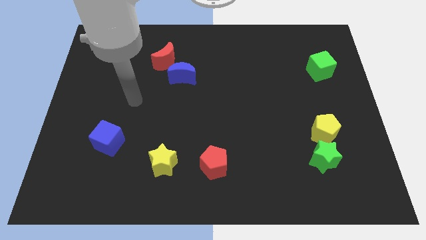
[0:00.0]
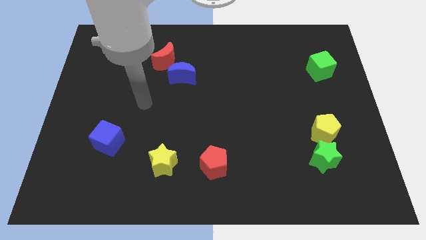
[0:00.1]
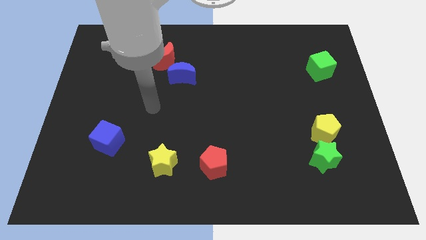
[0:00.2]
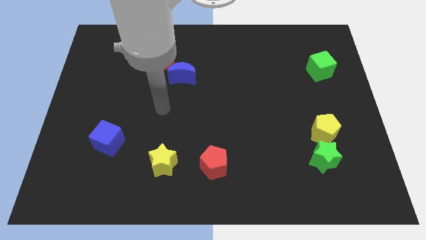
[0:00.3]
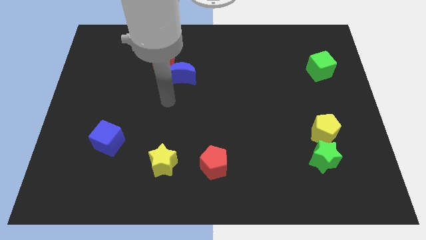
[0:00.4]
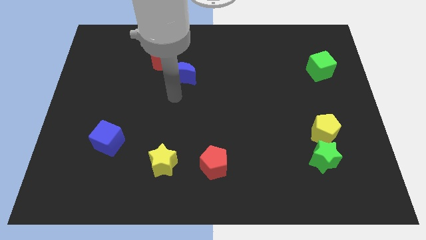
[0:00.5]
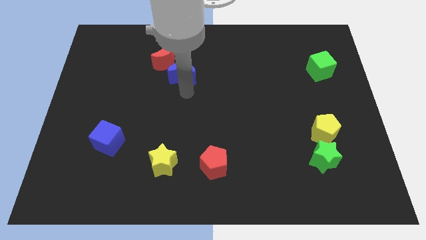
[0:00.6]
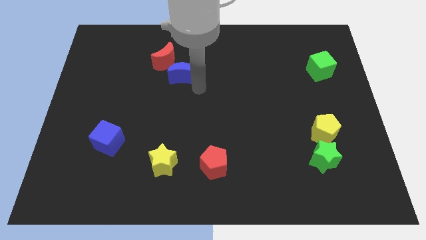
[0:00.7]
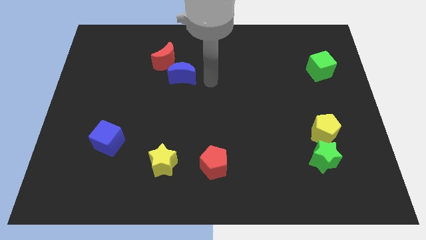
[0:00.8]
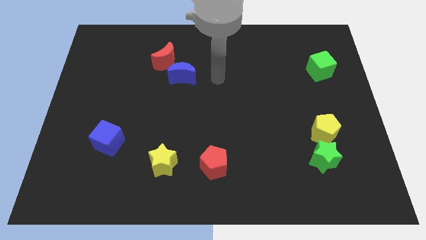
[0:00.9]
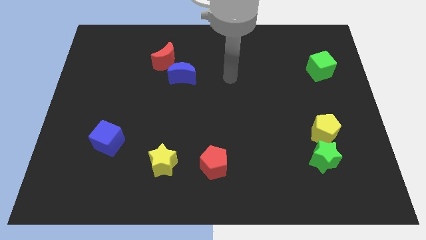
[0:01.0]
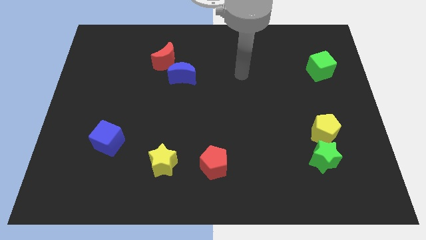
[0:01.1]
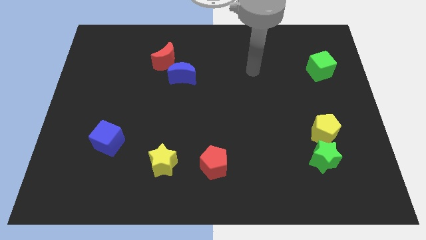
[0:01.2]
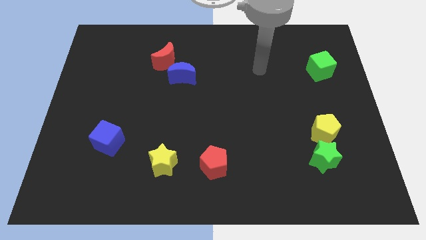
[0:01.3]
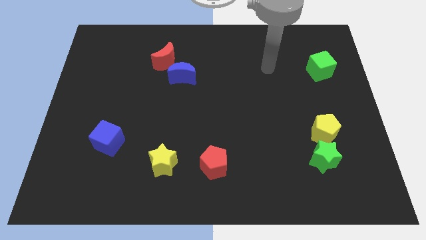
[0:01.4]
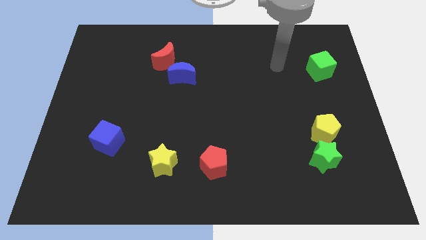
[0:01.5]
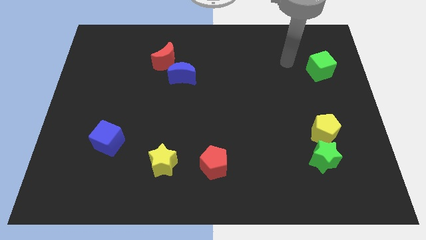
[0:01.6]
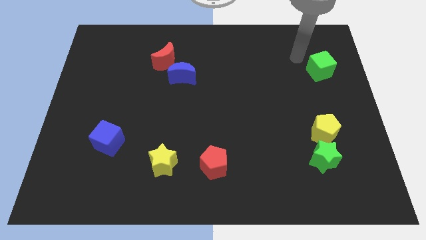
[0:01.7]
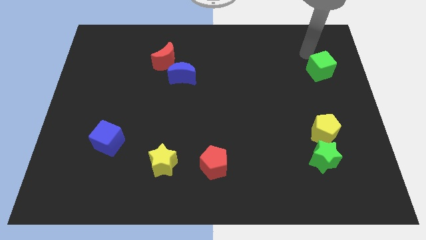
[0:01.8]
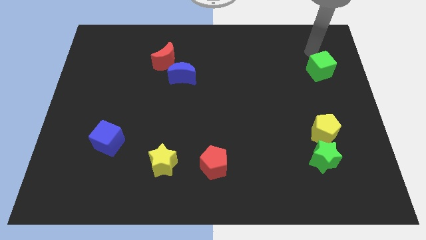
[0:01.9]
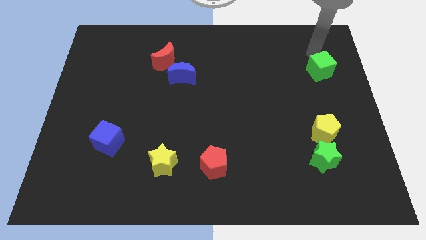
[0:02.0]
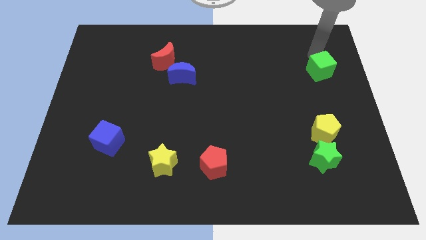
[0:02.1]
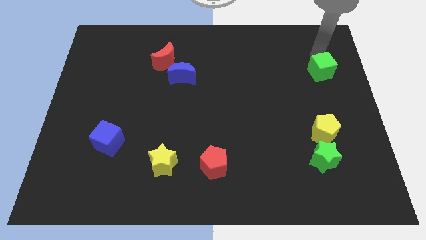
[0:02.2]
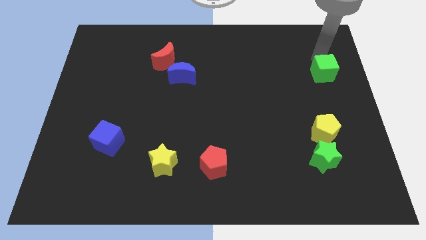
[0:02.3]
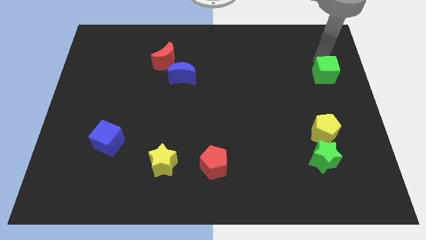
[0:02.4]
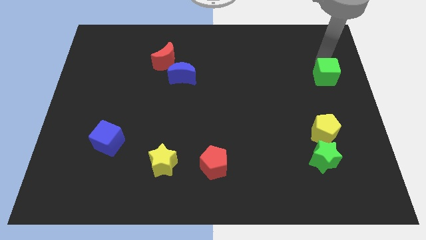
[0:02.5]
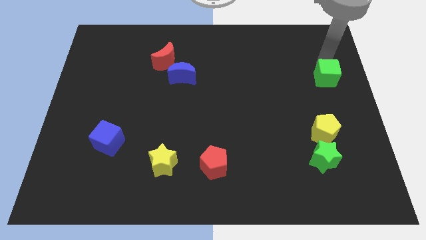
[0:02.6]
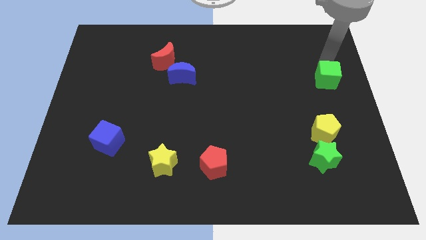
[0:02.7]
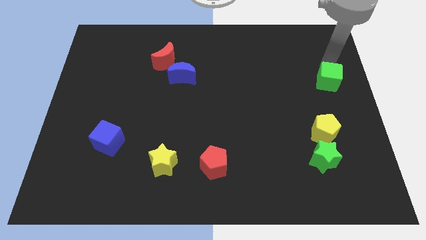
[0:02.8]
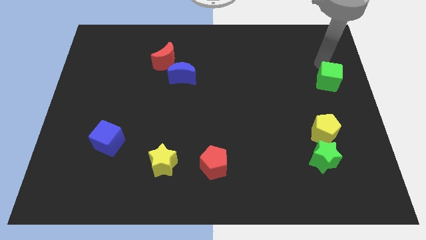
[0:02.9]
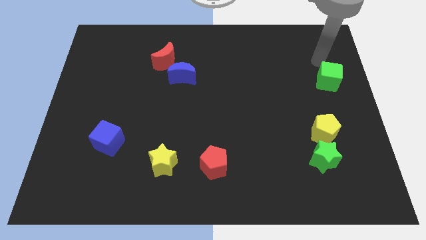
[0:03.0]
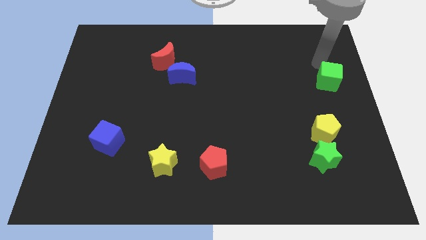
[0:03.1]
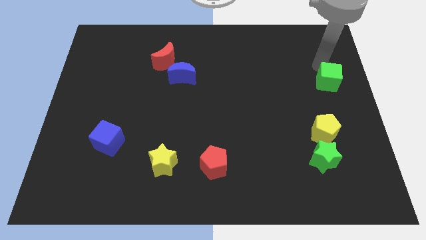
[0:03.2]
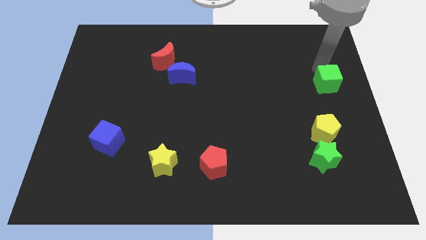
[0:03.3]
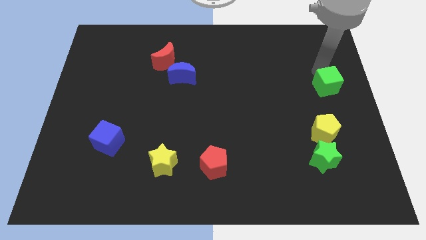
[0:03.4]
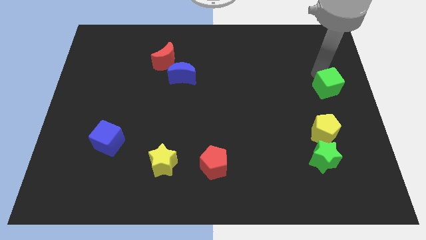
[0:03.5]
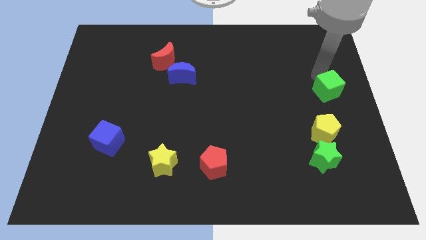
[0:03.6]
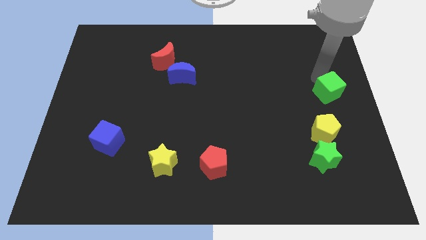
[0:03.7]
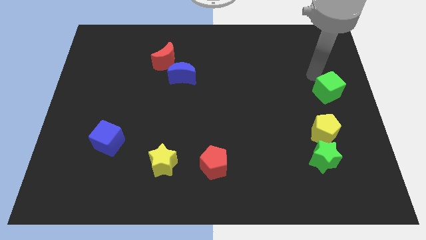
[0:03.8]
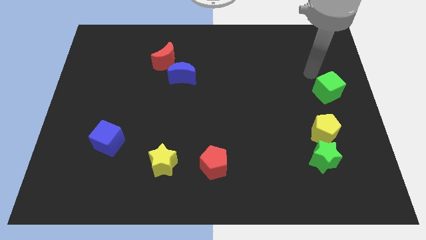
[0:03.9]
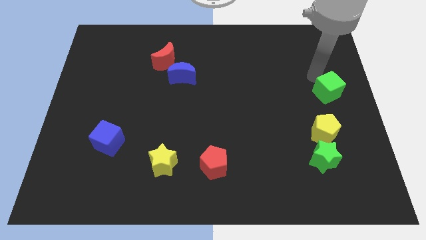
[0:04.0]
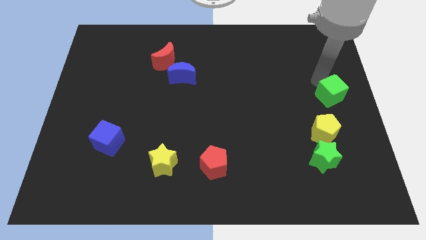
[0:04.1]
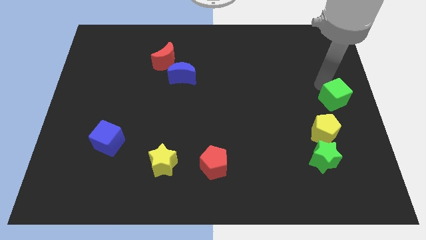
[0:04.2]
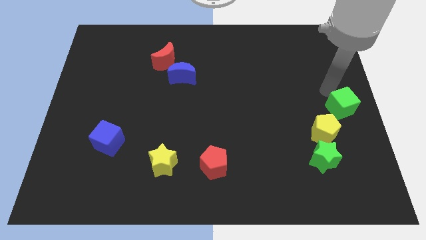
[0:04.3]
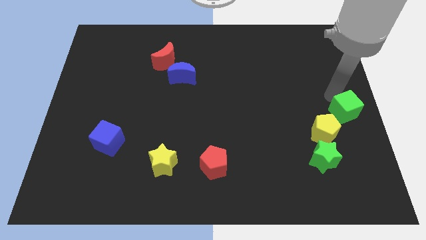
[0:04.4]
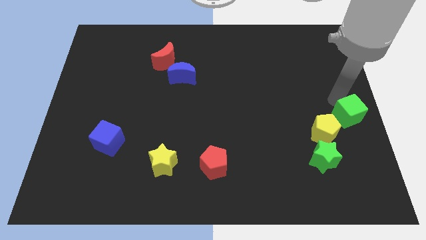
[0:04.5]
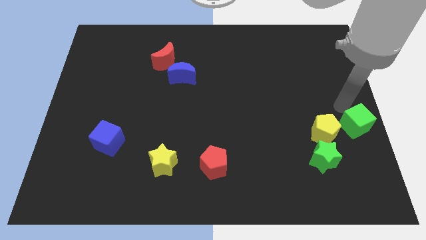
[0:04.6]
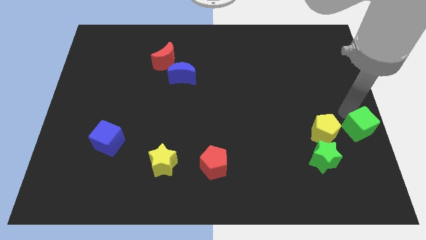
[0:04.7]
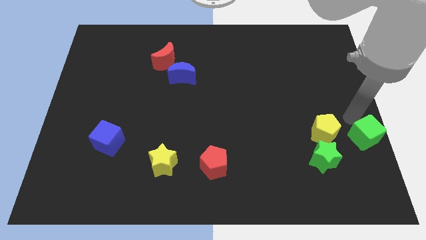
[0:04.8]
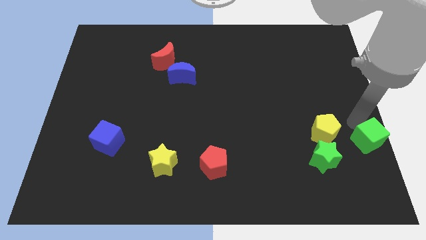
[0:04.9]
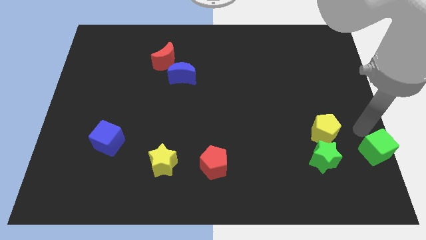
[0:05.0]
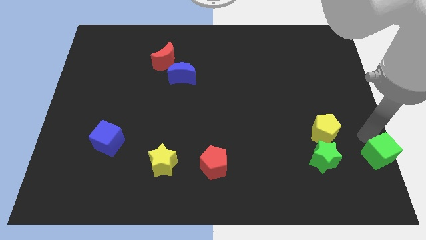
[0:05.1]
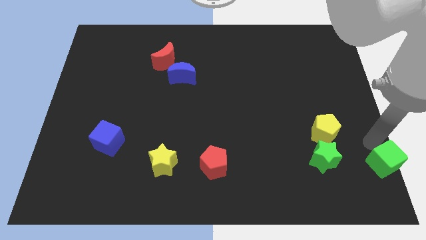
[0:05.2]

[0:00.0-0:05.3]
put the green cube to the bottom right of the board

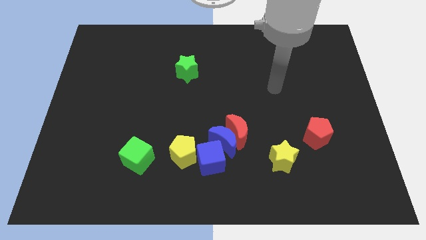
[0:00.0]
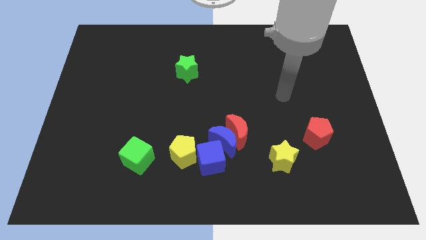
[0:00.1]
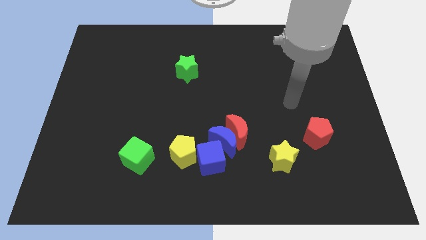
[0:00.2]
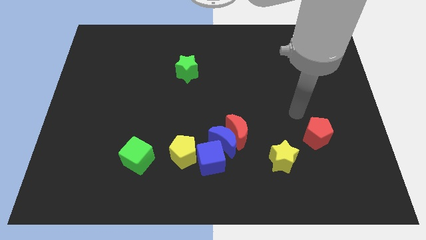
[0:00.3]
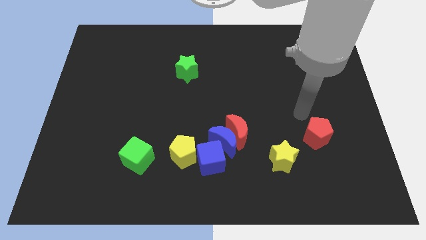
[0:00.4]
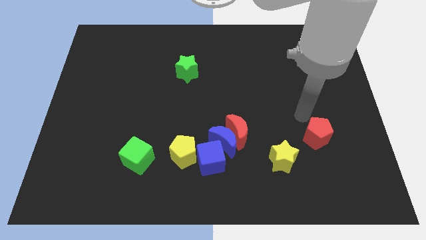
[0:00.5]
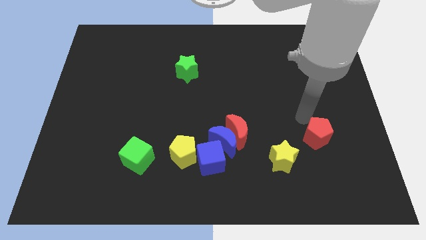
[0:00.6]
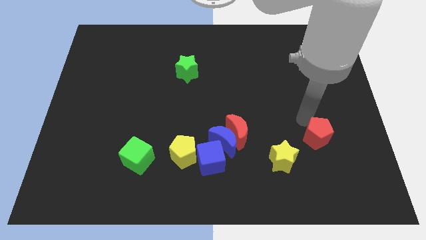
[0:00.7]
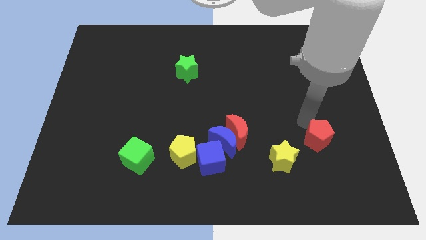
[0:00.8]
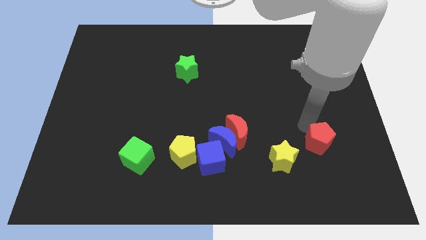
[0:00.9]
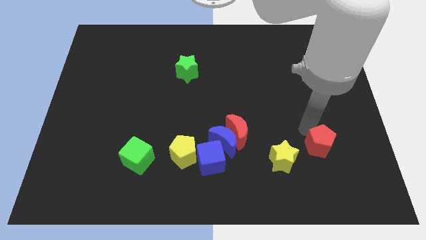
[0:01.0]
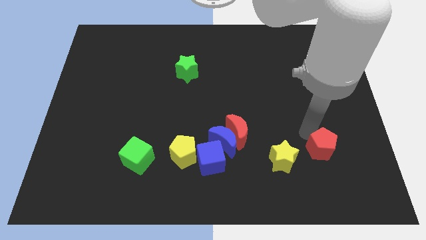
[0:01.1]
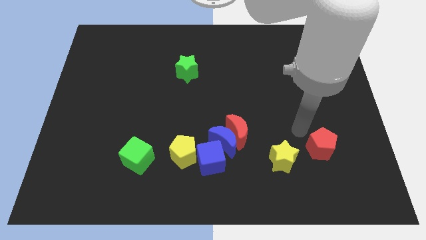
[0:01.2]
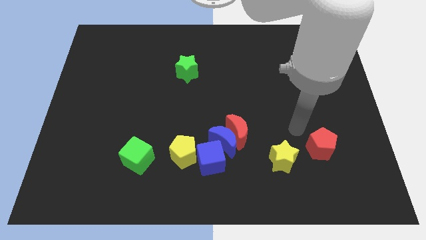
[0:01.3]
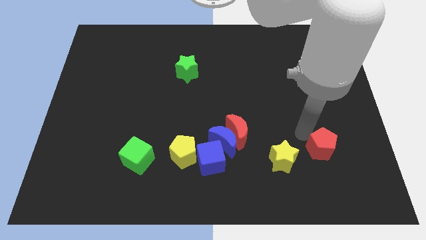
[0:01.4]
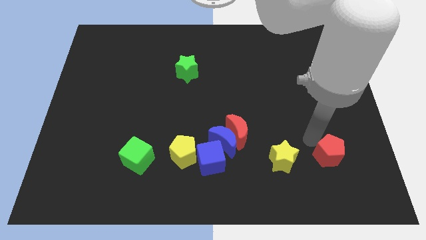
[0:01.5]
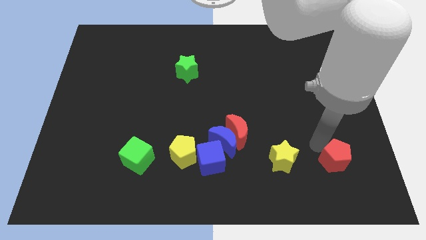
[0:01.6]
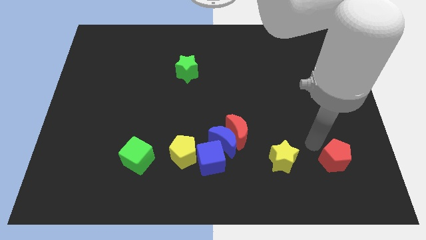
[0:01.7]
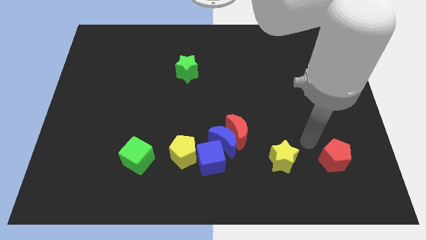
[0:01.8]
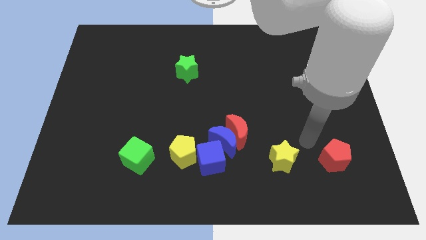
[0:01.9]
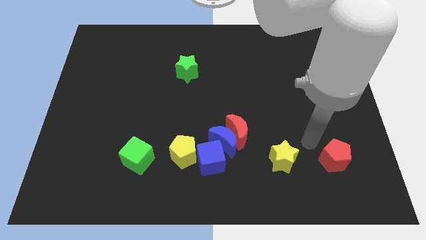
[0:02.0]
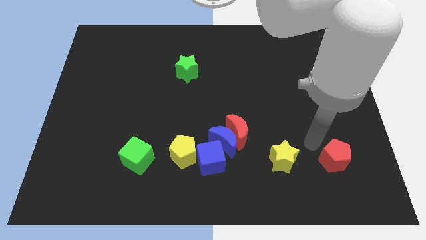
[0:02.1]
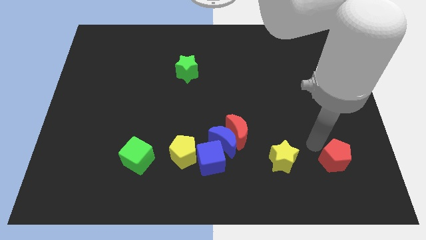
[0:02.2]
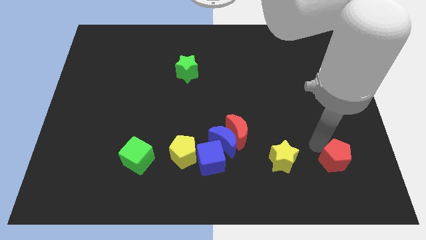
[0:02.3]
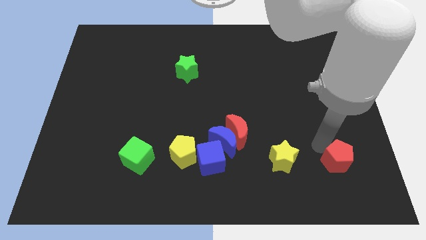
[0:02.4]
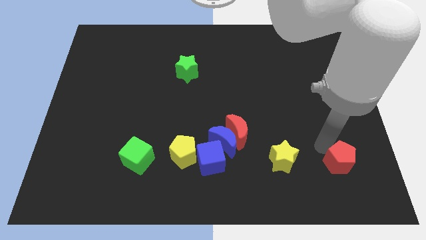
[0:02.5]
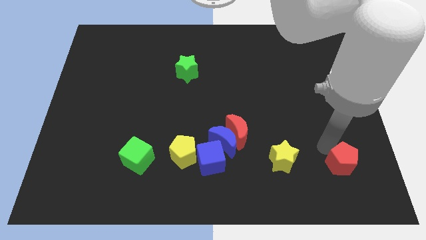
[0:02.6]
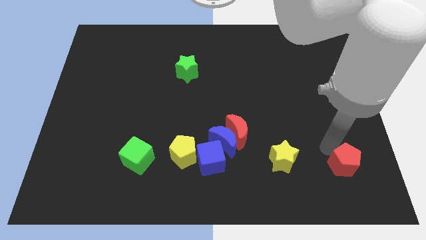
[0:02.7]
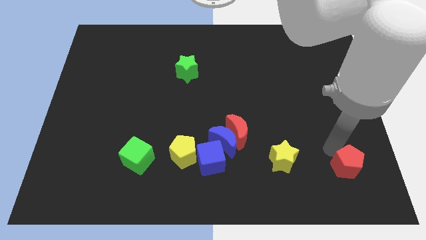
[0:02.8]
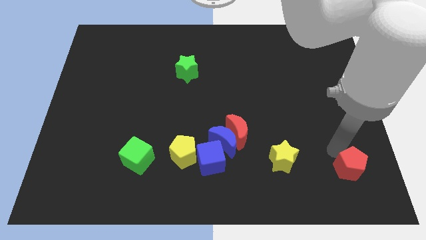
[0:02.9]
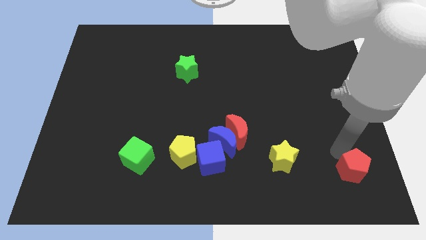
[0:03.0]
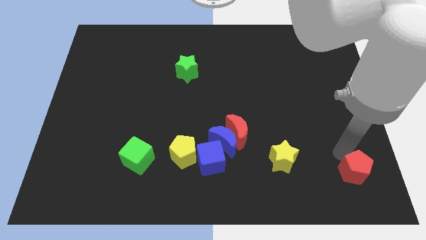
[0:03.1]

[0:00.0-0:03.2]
slide the red pentagon to the bottom right corner
